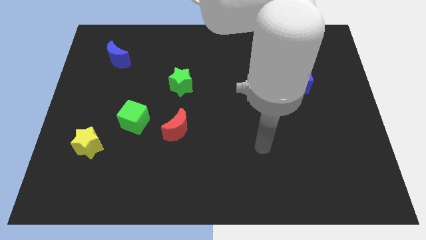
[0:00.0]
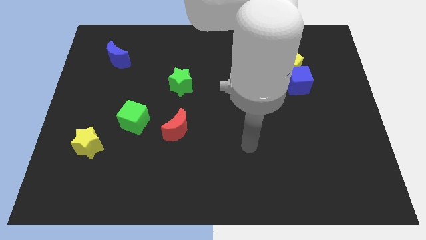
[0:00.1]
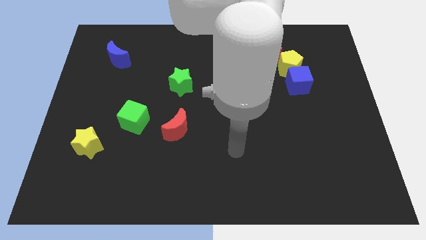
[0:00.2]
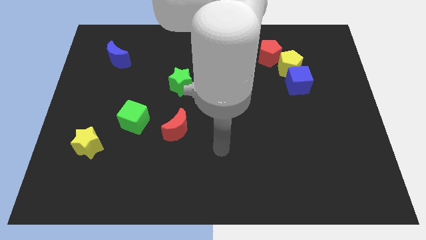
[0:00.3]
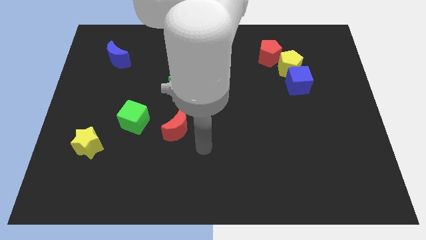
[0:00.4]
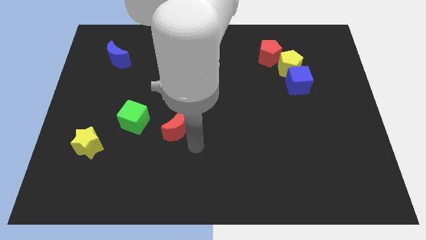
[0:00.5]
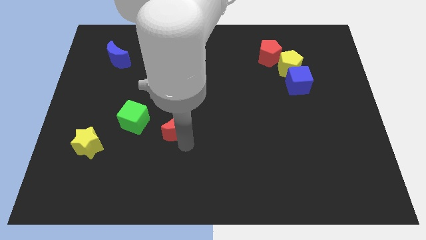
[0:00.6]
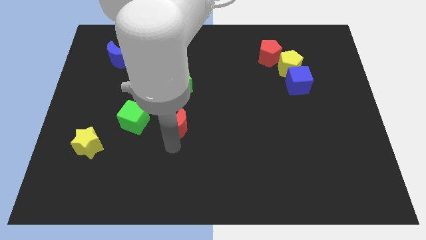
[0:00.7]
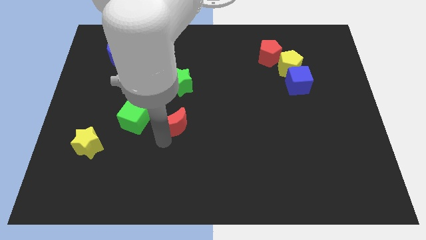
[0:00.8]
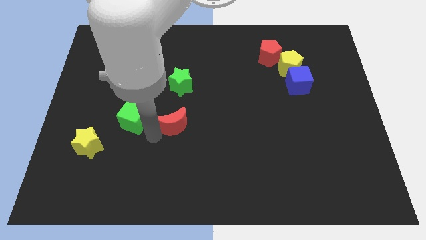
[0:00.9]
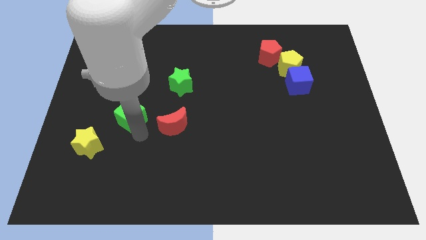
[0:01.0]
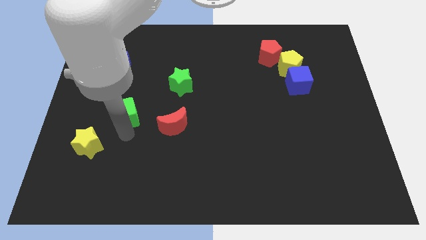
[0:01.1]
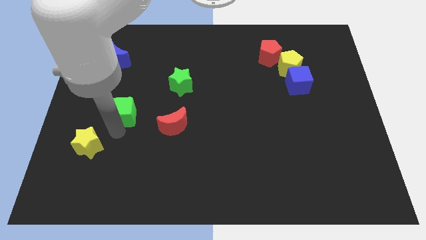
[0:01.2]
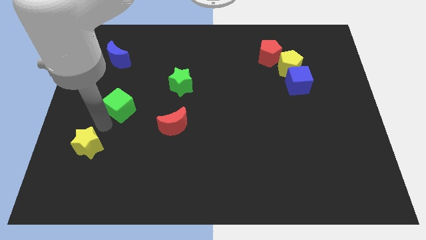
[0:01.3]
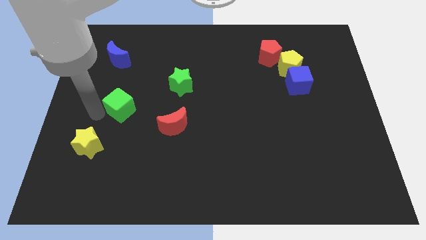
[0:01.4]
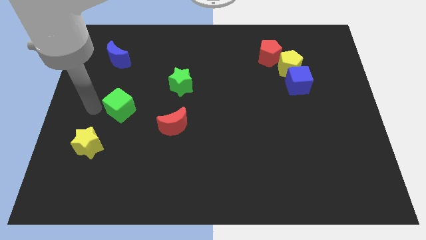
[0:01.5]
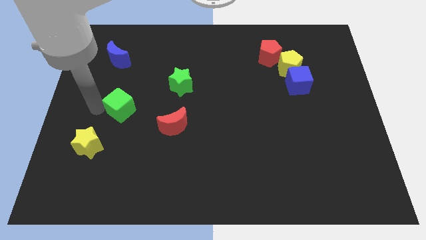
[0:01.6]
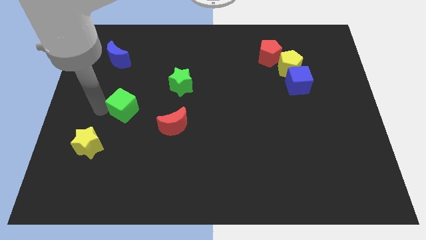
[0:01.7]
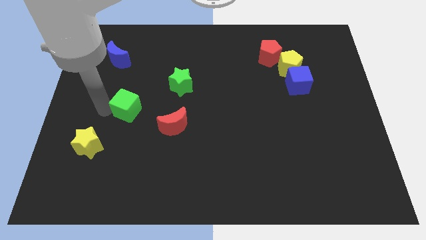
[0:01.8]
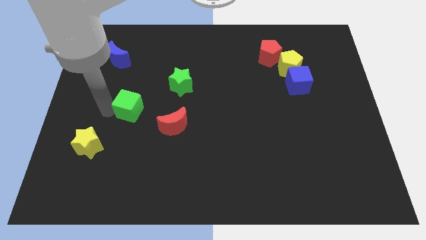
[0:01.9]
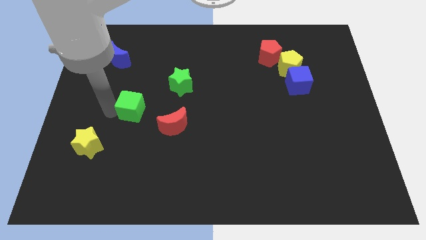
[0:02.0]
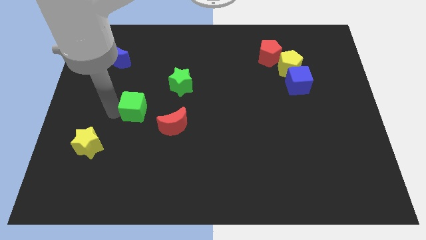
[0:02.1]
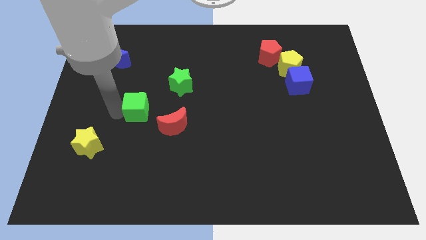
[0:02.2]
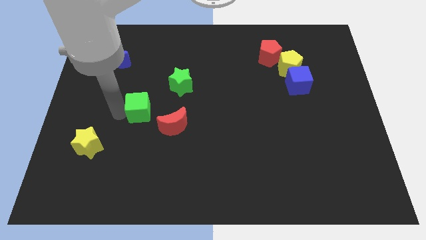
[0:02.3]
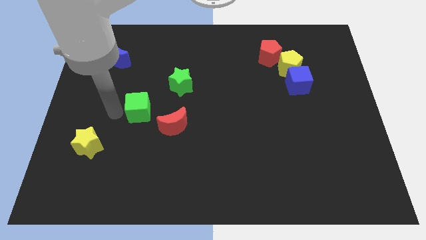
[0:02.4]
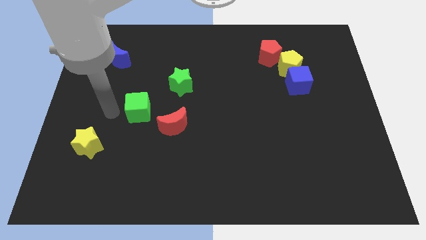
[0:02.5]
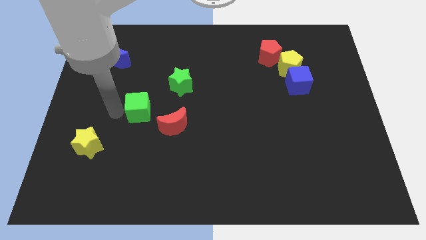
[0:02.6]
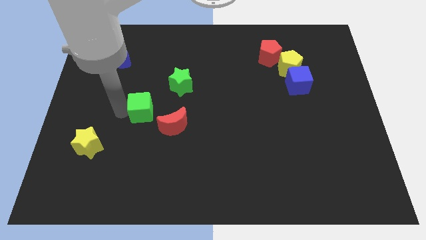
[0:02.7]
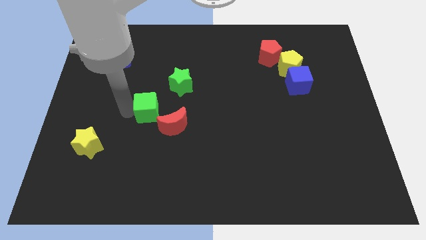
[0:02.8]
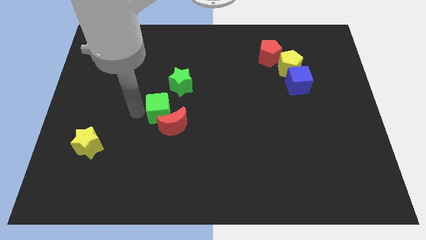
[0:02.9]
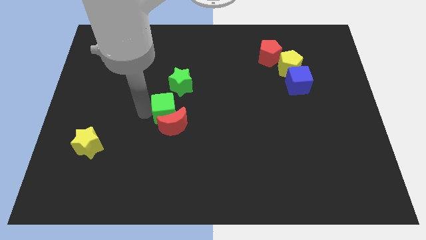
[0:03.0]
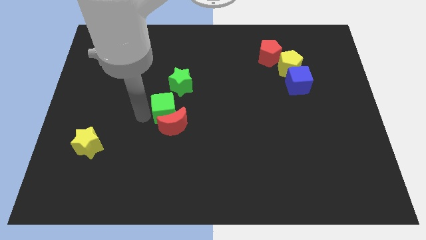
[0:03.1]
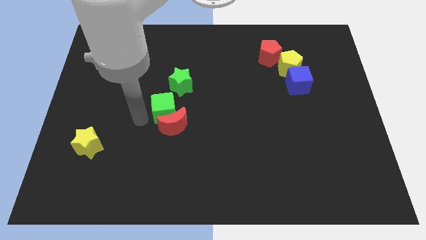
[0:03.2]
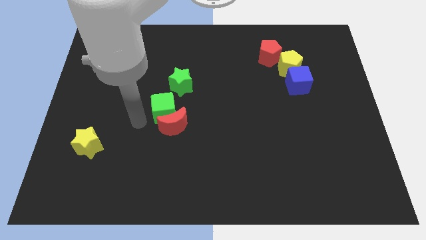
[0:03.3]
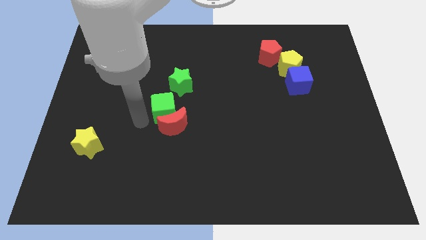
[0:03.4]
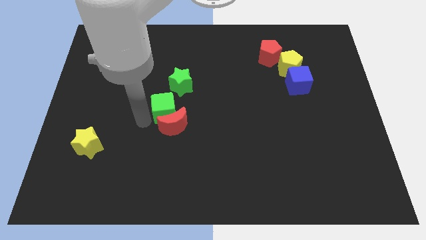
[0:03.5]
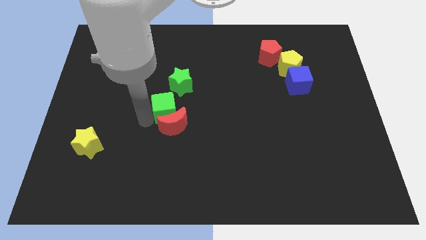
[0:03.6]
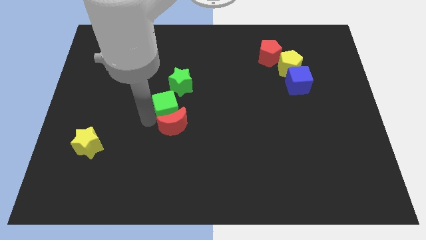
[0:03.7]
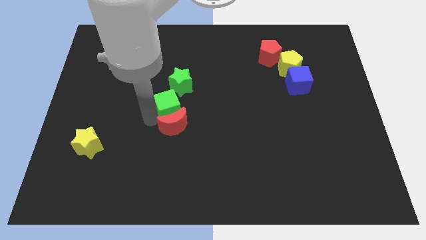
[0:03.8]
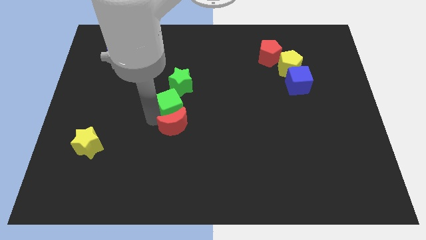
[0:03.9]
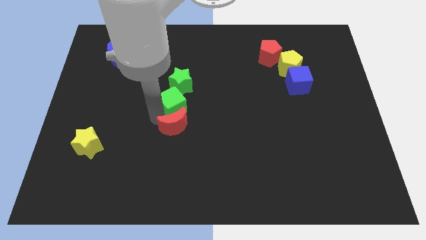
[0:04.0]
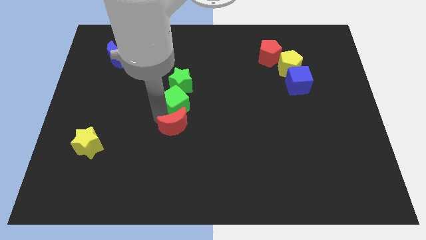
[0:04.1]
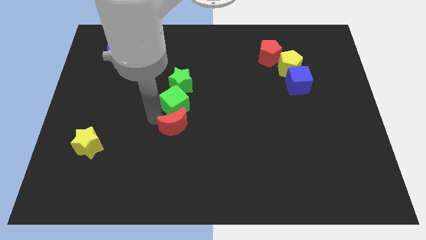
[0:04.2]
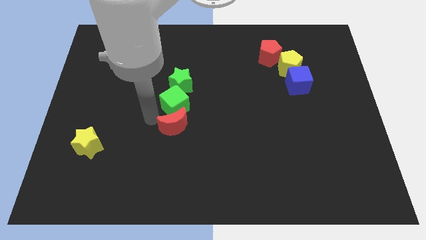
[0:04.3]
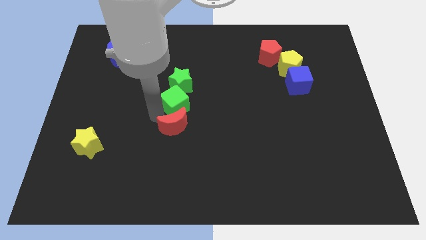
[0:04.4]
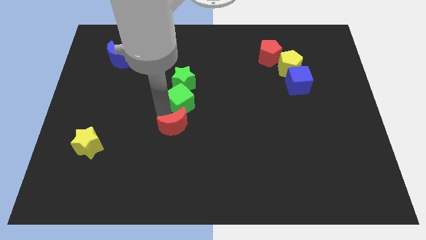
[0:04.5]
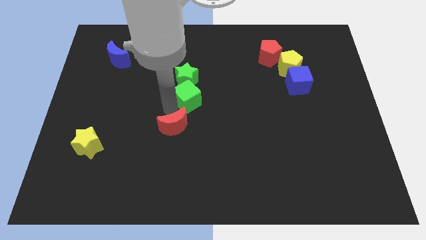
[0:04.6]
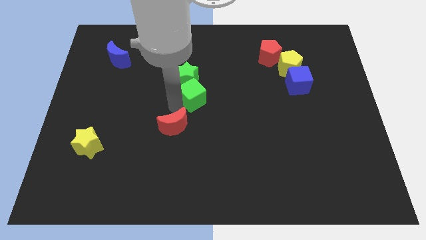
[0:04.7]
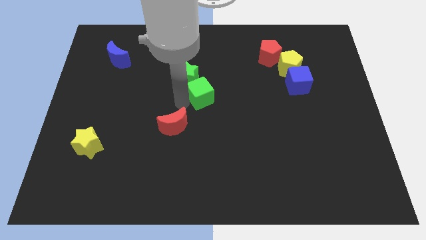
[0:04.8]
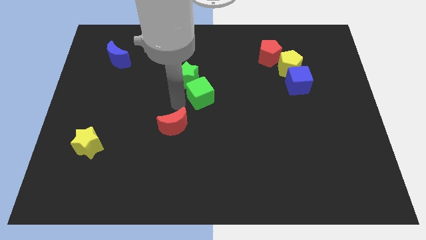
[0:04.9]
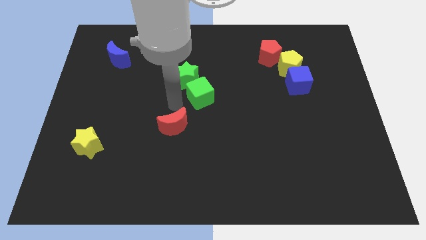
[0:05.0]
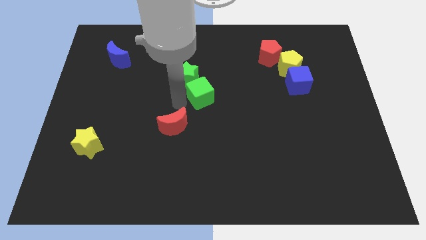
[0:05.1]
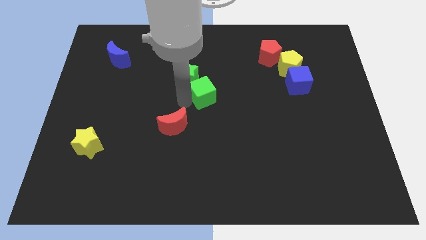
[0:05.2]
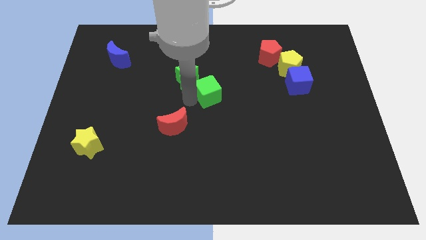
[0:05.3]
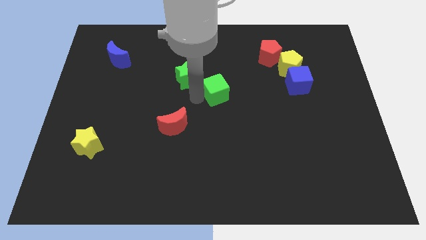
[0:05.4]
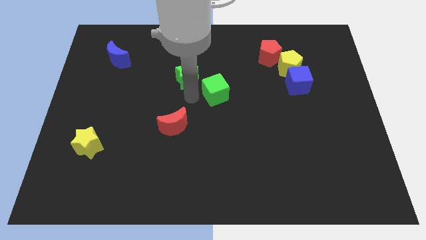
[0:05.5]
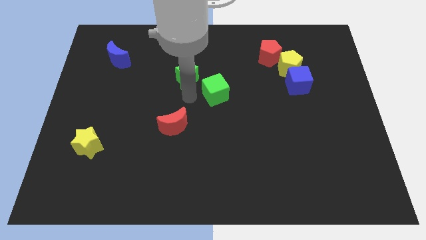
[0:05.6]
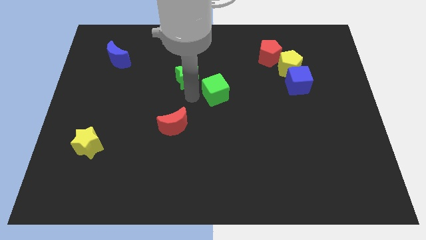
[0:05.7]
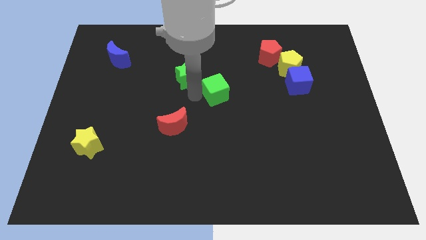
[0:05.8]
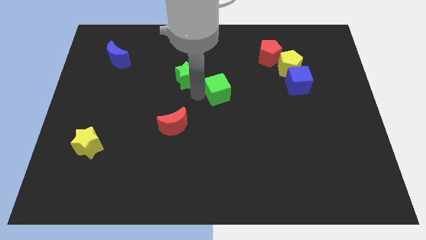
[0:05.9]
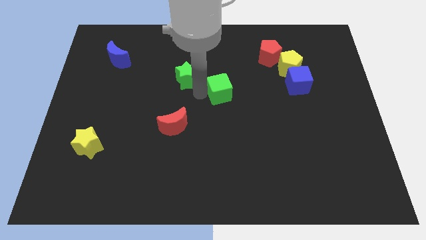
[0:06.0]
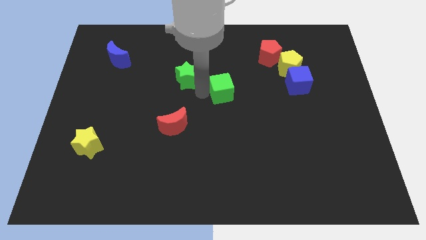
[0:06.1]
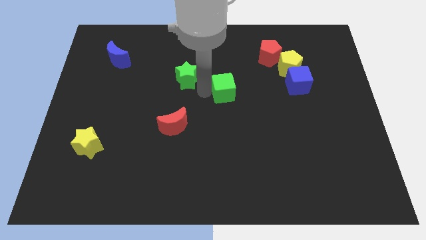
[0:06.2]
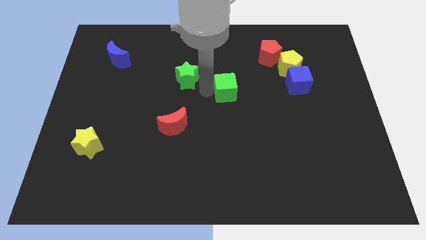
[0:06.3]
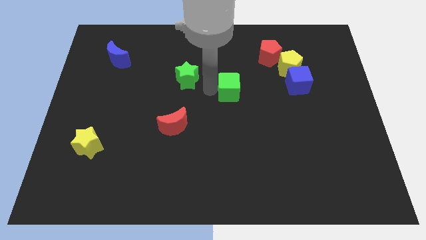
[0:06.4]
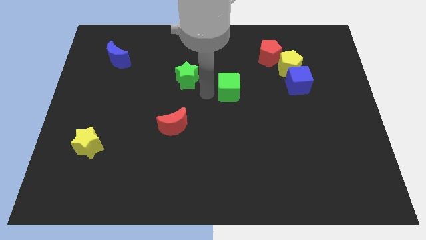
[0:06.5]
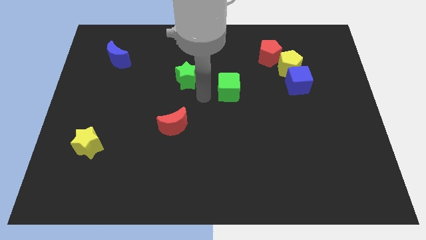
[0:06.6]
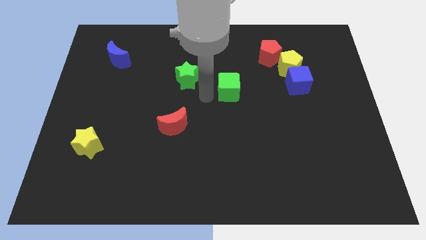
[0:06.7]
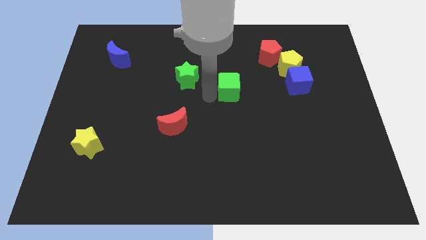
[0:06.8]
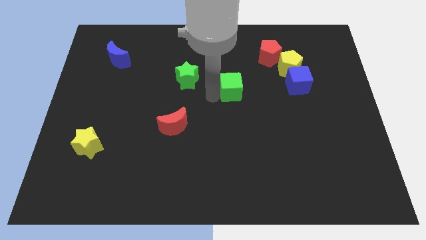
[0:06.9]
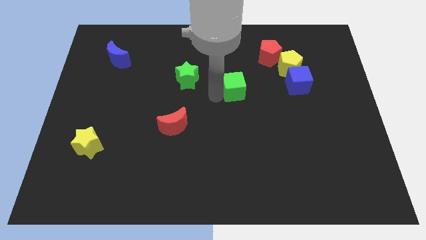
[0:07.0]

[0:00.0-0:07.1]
slide the green cube just left of the blue cube

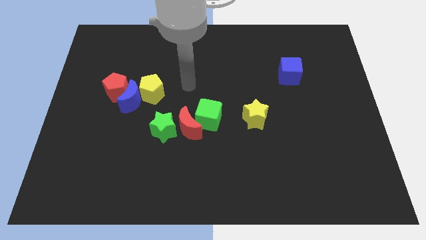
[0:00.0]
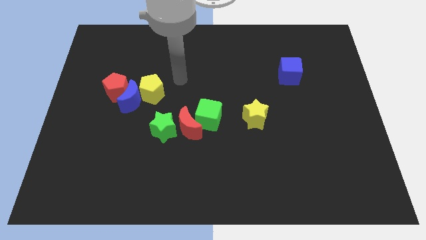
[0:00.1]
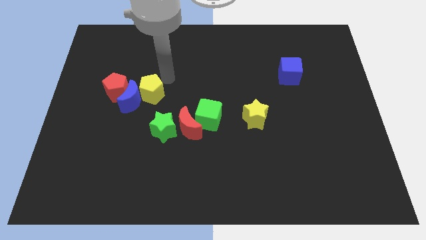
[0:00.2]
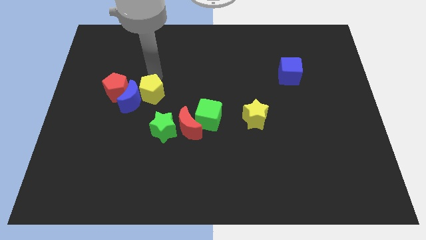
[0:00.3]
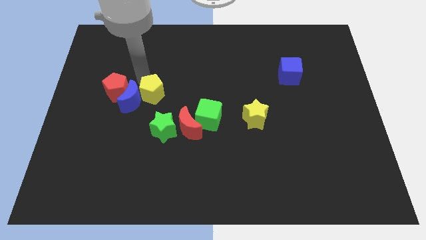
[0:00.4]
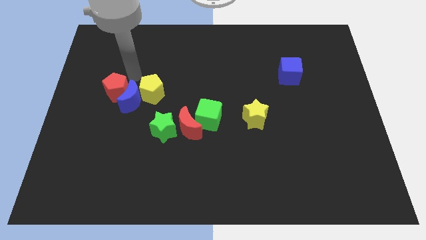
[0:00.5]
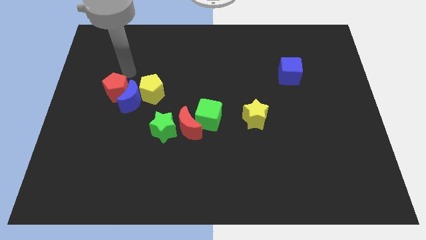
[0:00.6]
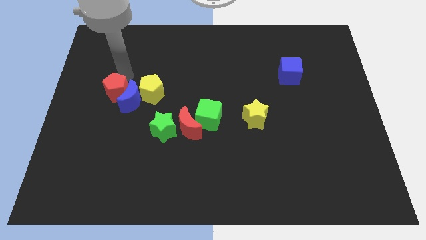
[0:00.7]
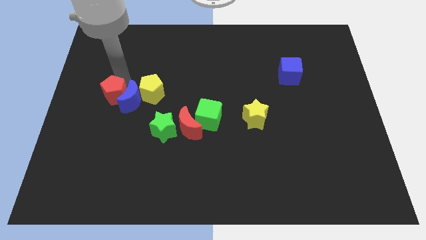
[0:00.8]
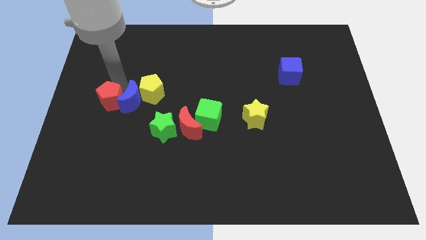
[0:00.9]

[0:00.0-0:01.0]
put the red pentagon to the bottom left of the yellow pentagon
